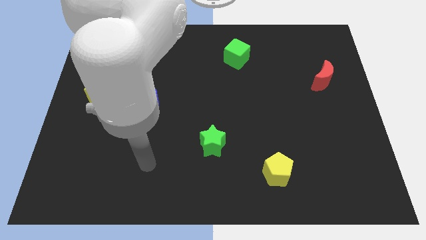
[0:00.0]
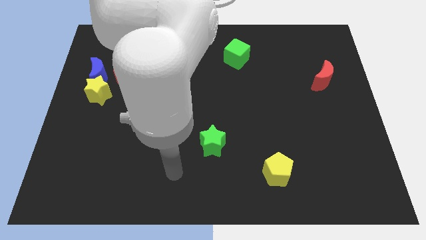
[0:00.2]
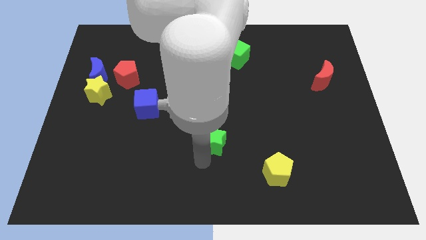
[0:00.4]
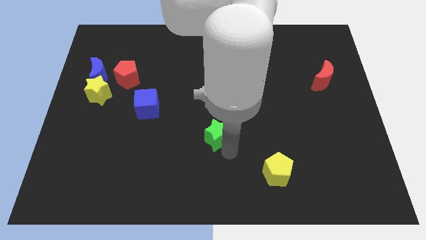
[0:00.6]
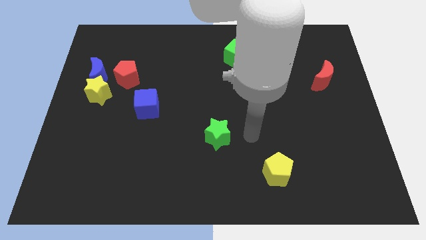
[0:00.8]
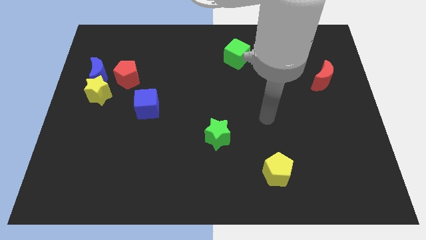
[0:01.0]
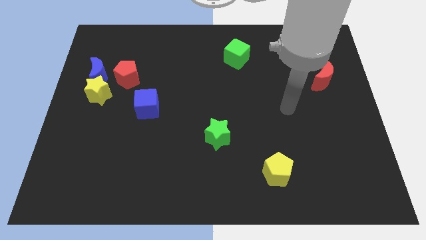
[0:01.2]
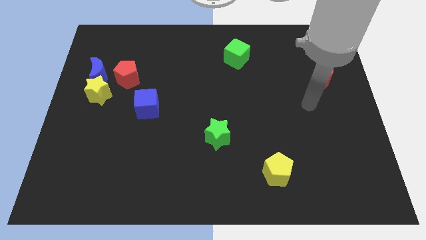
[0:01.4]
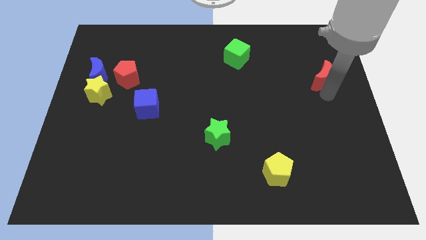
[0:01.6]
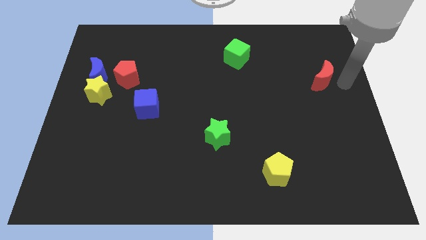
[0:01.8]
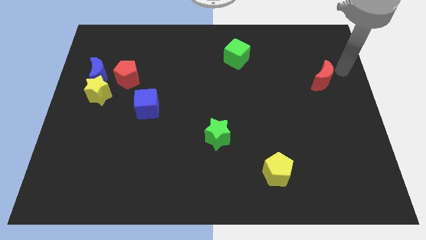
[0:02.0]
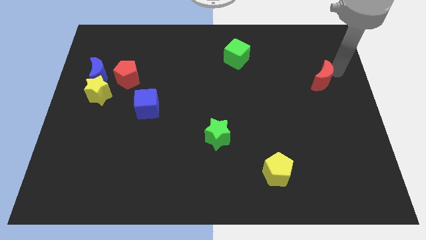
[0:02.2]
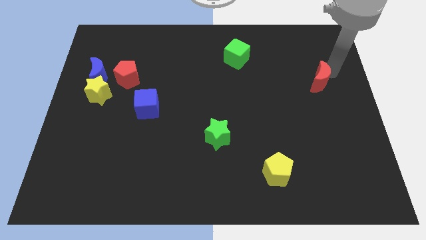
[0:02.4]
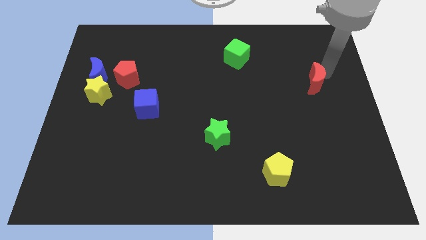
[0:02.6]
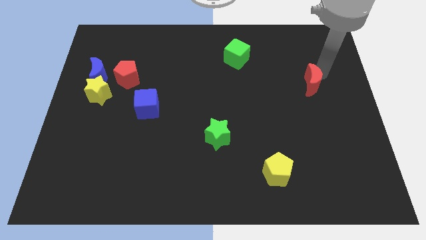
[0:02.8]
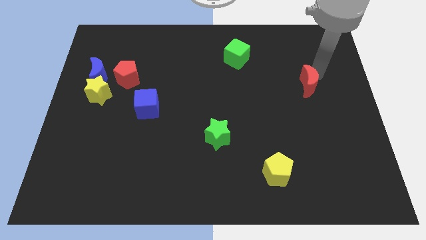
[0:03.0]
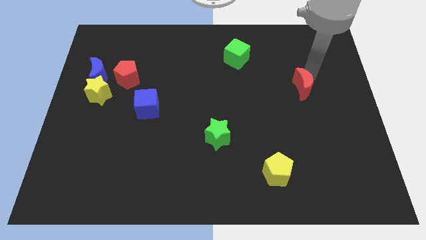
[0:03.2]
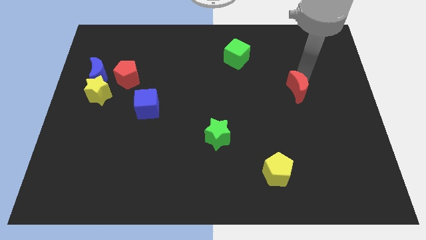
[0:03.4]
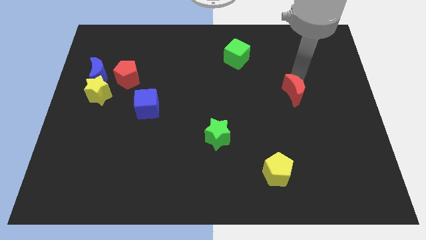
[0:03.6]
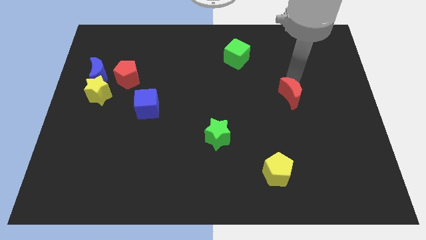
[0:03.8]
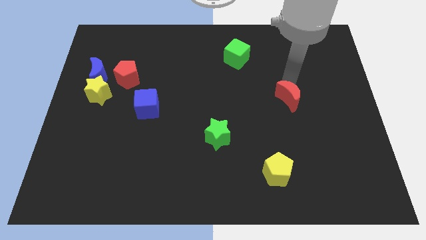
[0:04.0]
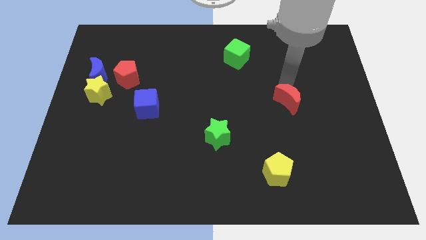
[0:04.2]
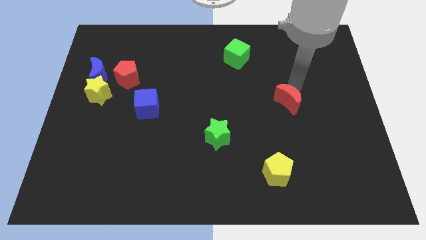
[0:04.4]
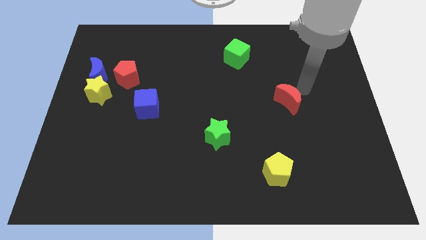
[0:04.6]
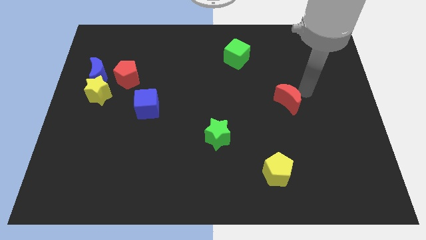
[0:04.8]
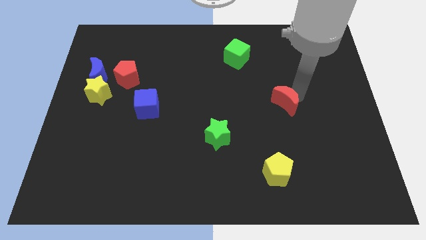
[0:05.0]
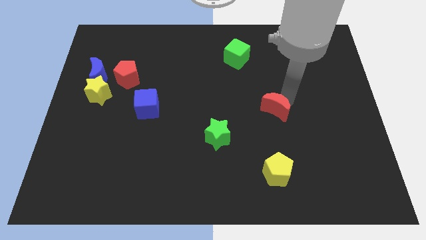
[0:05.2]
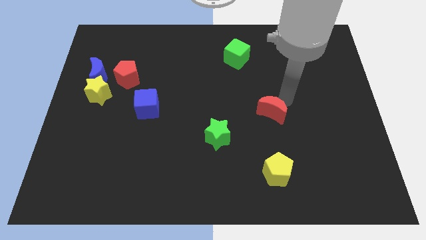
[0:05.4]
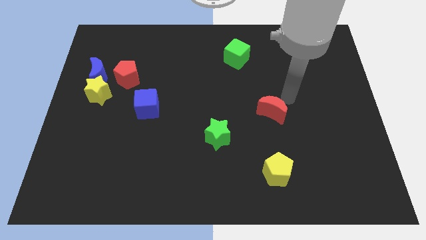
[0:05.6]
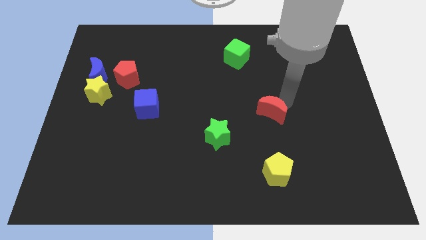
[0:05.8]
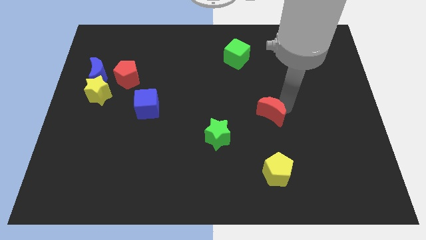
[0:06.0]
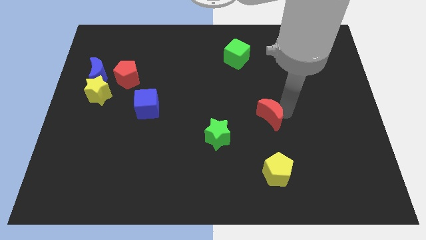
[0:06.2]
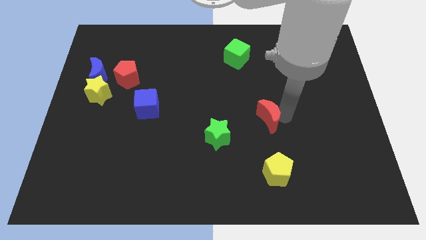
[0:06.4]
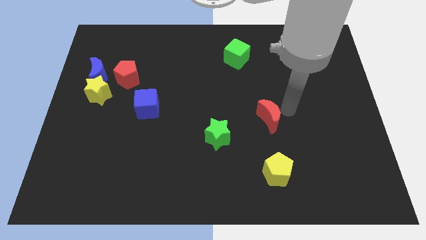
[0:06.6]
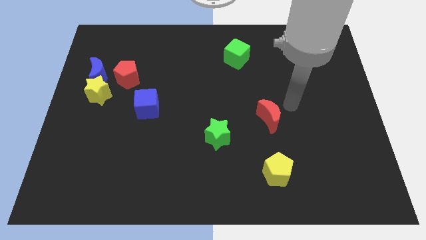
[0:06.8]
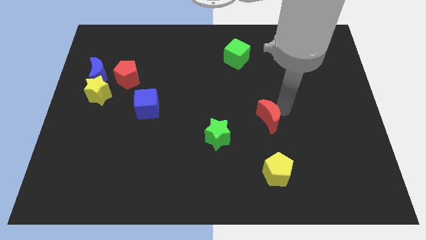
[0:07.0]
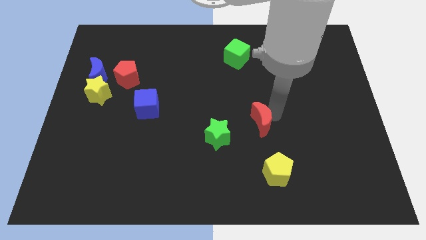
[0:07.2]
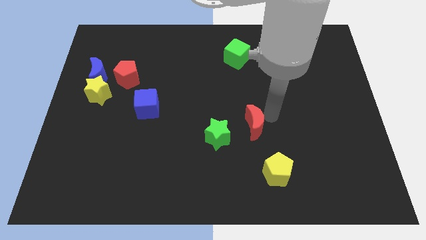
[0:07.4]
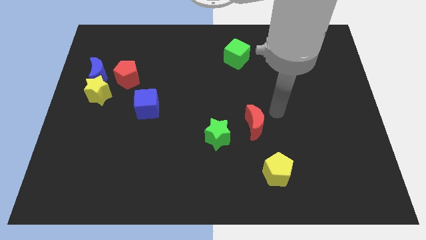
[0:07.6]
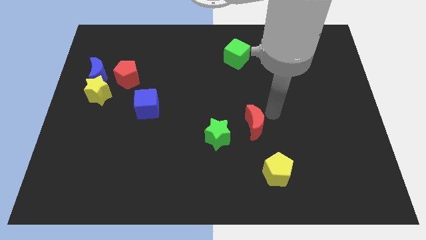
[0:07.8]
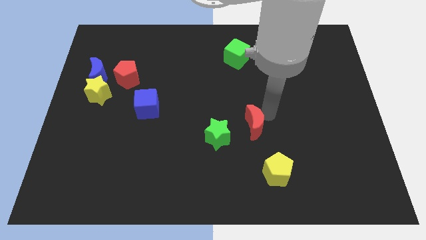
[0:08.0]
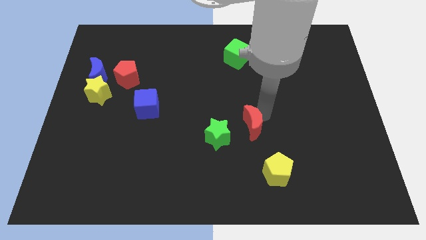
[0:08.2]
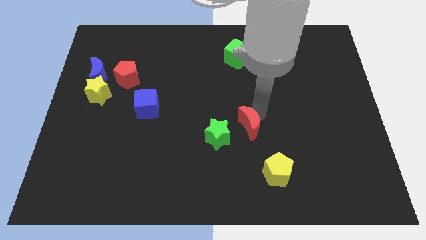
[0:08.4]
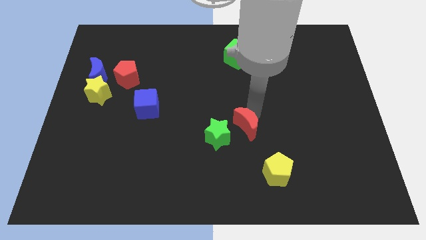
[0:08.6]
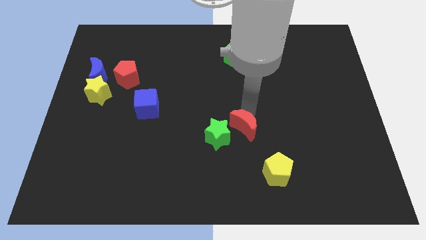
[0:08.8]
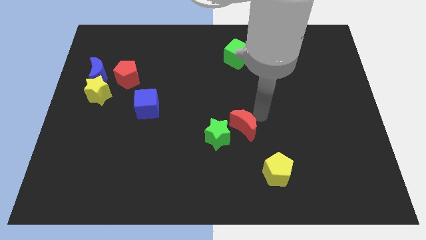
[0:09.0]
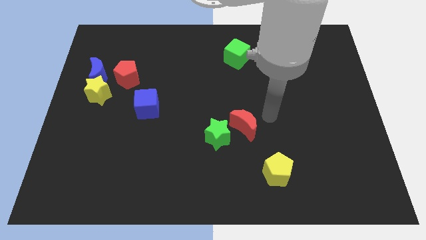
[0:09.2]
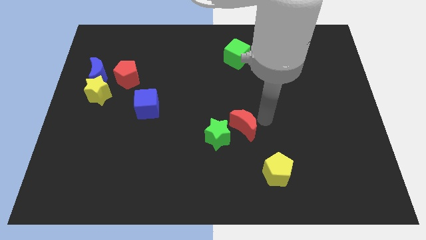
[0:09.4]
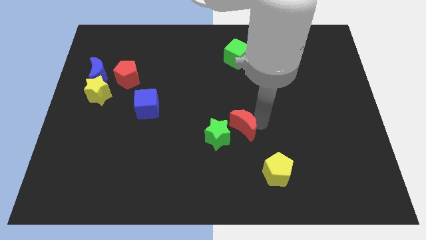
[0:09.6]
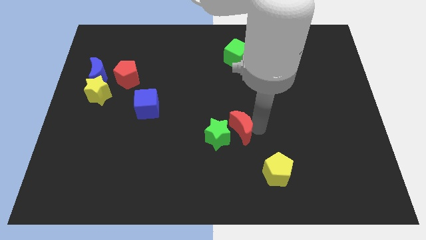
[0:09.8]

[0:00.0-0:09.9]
move the red moon to the green star

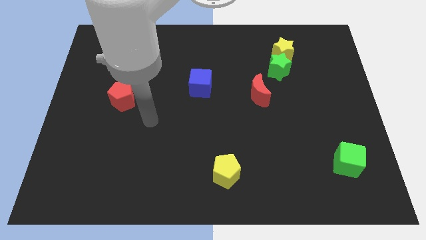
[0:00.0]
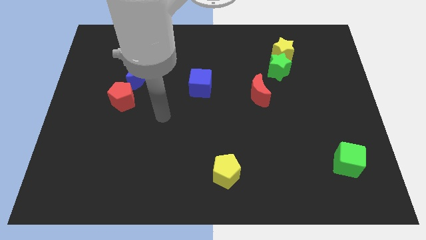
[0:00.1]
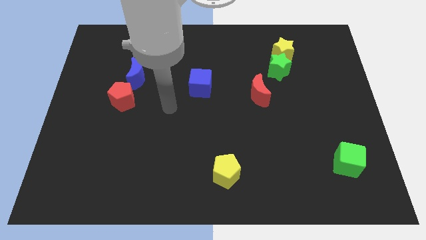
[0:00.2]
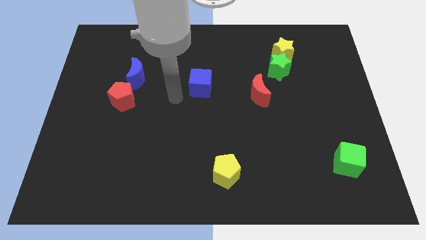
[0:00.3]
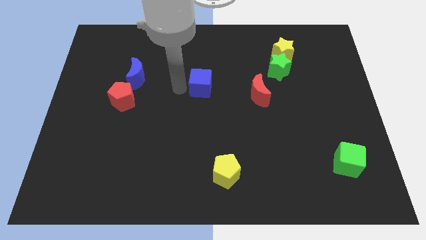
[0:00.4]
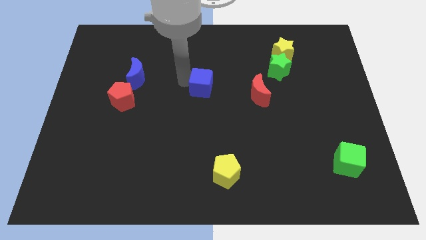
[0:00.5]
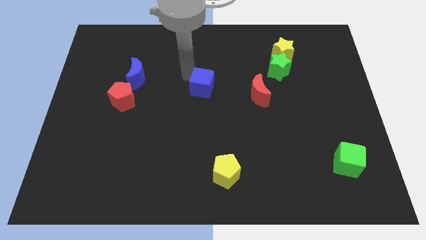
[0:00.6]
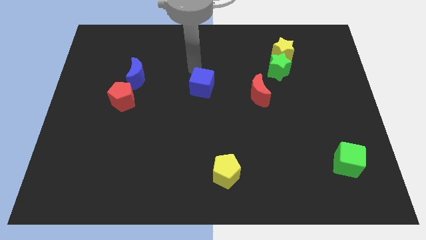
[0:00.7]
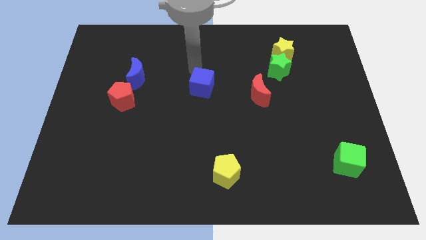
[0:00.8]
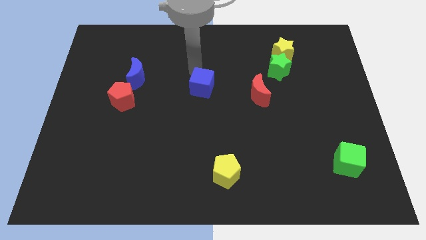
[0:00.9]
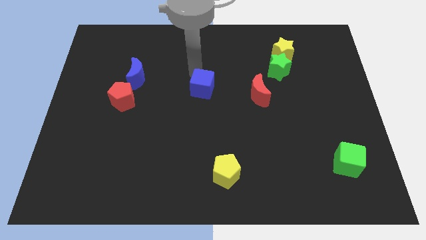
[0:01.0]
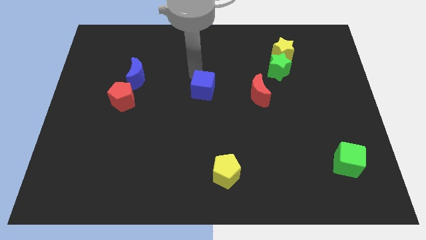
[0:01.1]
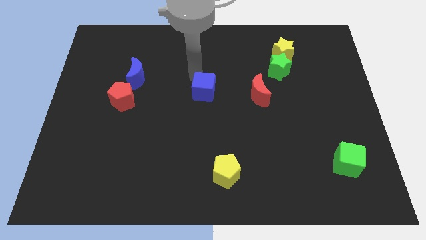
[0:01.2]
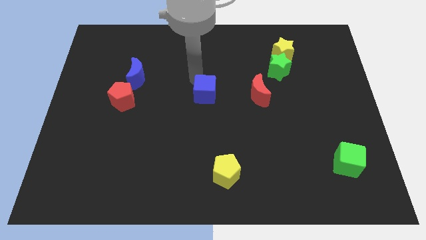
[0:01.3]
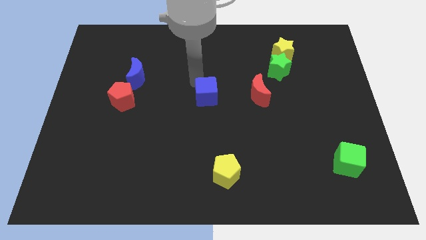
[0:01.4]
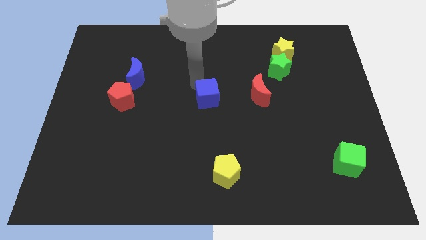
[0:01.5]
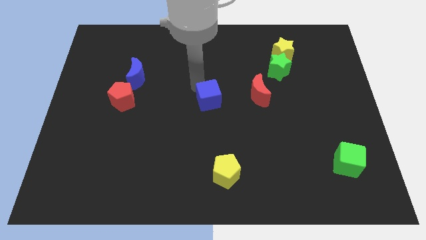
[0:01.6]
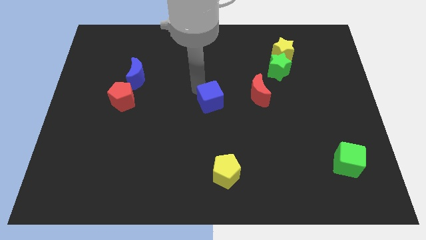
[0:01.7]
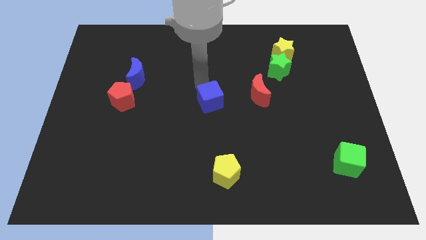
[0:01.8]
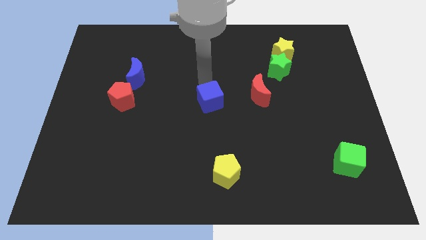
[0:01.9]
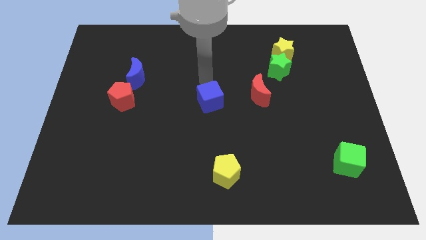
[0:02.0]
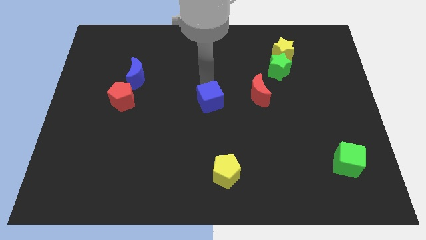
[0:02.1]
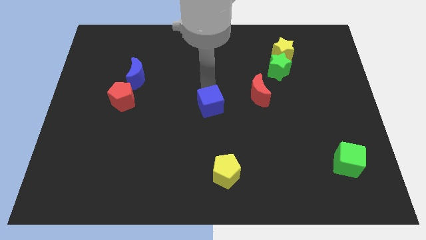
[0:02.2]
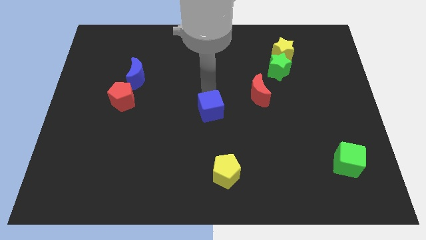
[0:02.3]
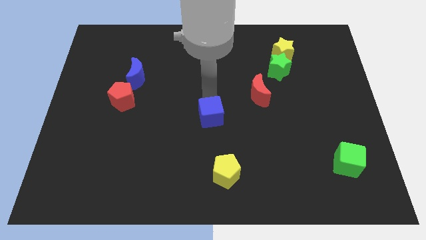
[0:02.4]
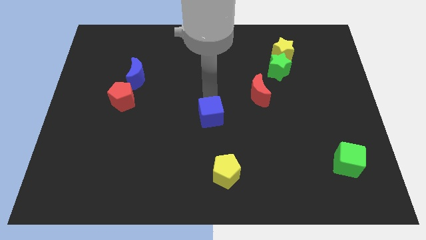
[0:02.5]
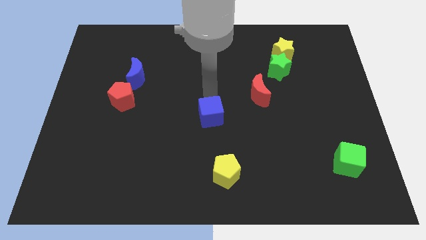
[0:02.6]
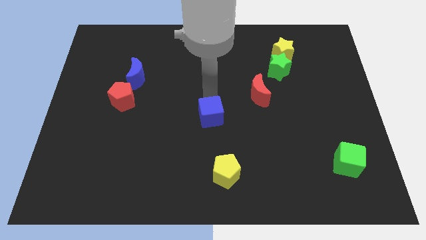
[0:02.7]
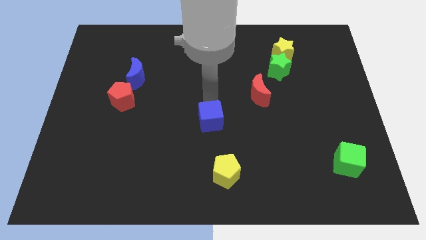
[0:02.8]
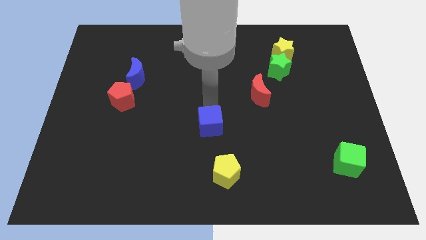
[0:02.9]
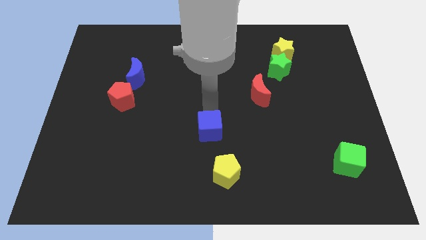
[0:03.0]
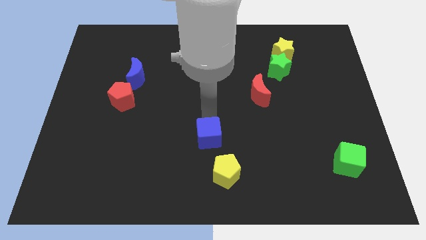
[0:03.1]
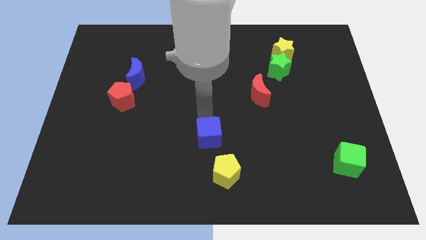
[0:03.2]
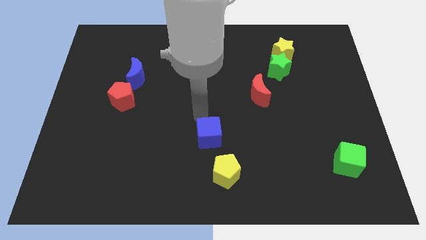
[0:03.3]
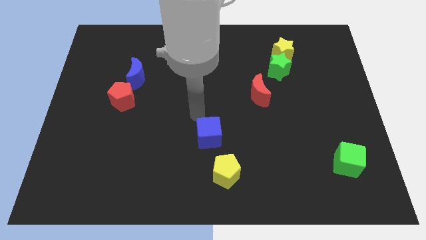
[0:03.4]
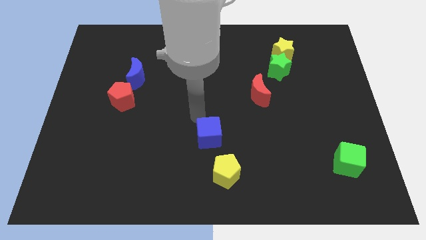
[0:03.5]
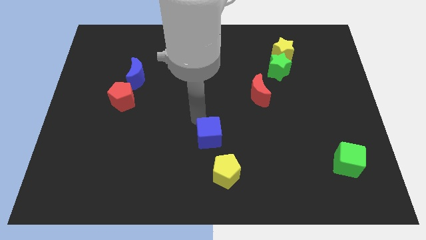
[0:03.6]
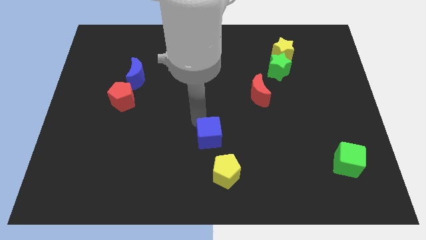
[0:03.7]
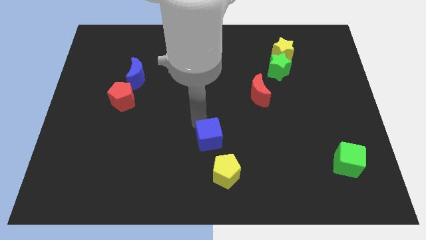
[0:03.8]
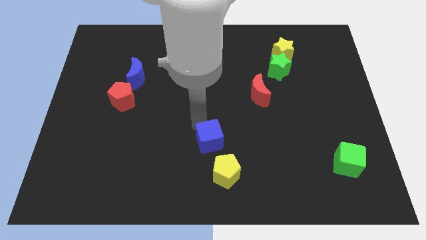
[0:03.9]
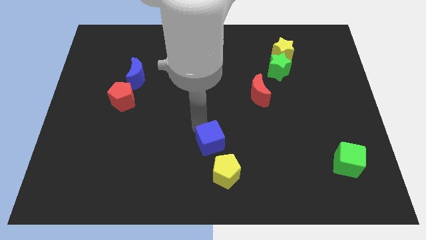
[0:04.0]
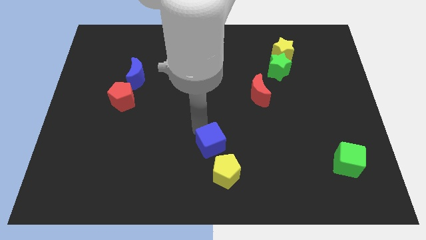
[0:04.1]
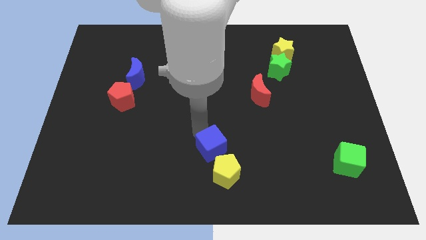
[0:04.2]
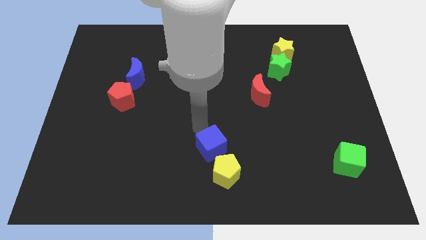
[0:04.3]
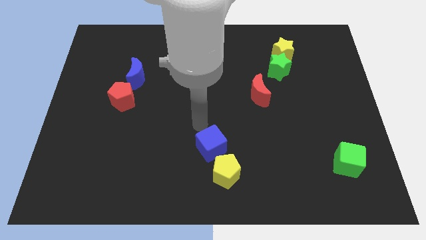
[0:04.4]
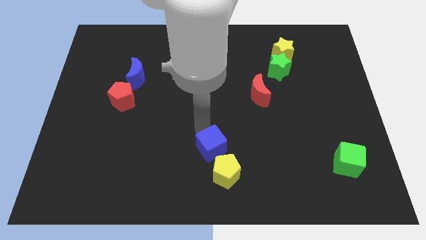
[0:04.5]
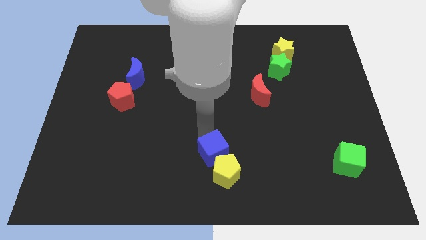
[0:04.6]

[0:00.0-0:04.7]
move the blue cube next to the yellow pentagon
